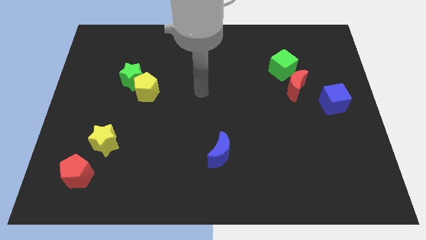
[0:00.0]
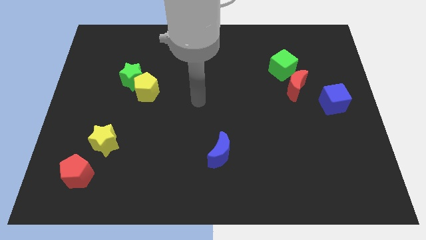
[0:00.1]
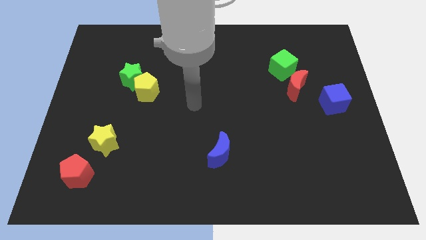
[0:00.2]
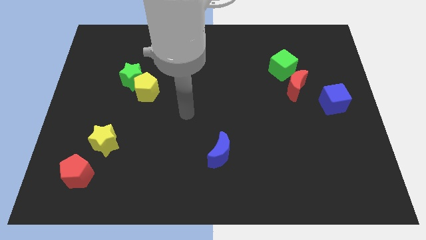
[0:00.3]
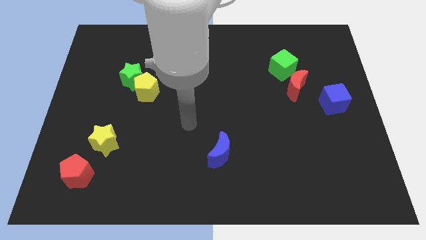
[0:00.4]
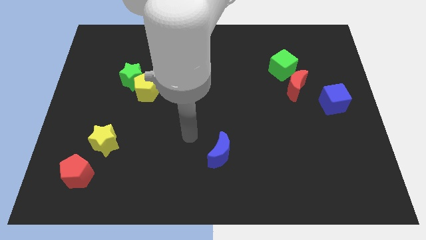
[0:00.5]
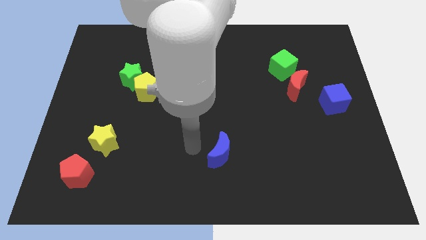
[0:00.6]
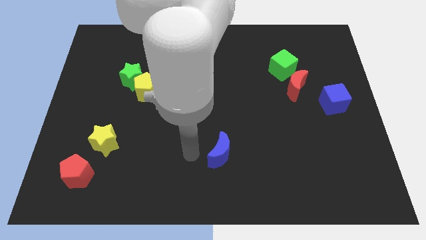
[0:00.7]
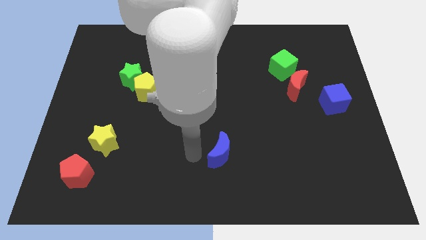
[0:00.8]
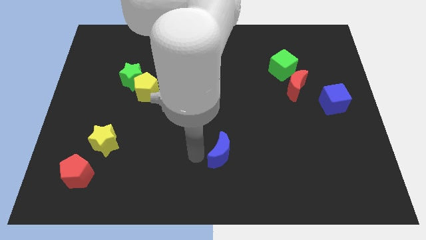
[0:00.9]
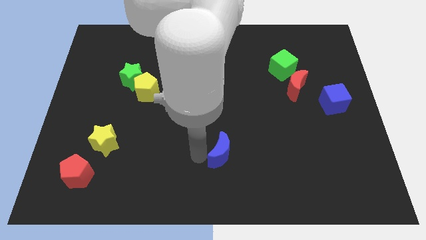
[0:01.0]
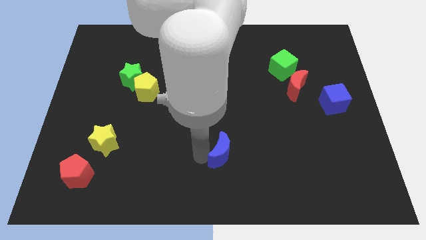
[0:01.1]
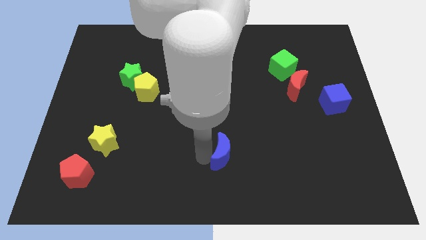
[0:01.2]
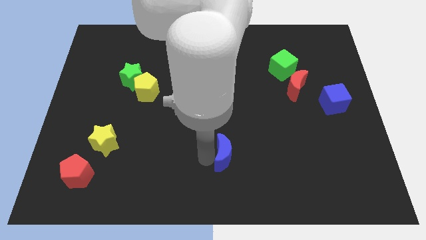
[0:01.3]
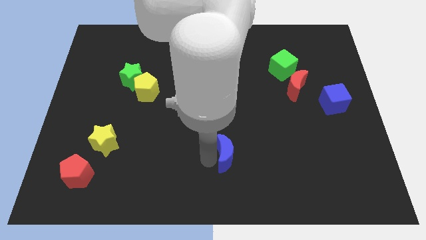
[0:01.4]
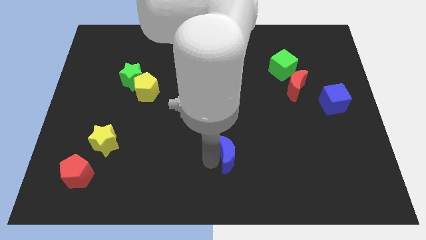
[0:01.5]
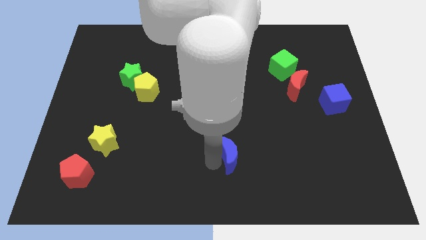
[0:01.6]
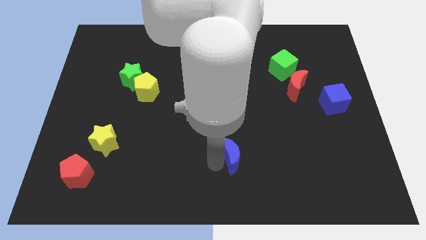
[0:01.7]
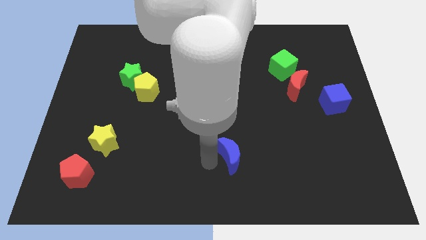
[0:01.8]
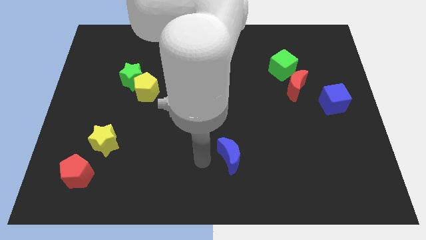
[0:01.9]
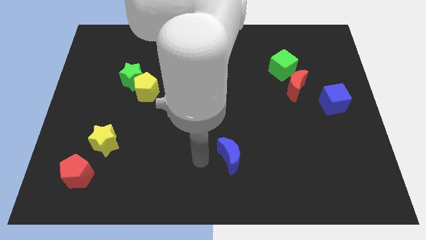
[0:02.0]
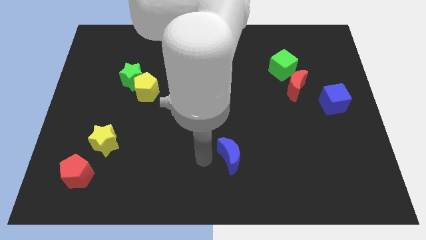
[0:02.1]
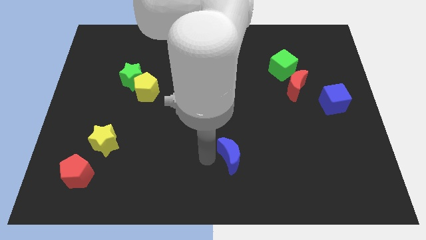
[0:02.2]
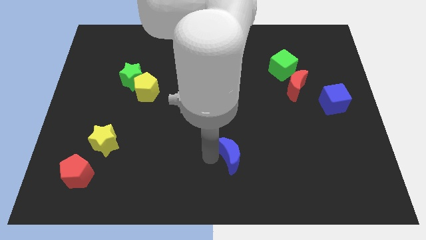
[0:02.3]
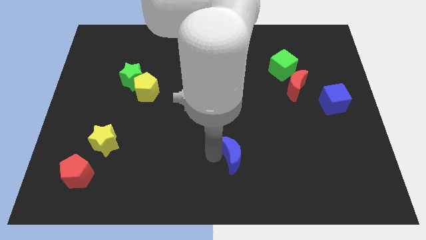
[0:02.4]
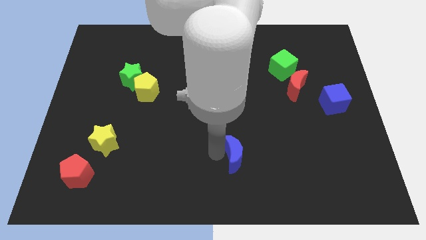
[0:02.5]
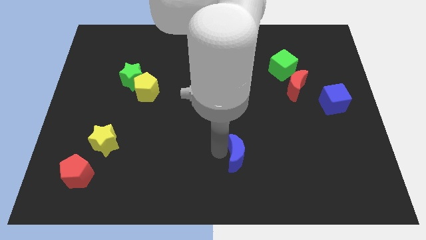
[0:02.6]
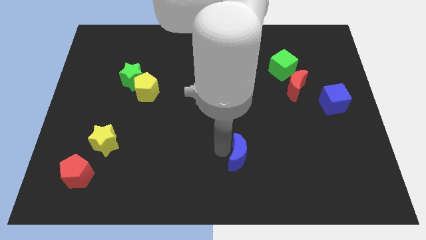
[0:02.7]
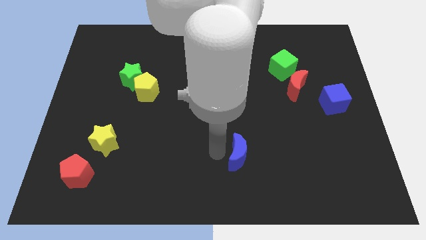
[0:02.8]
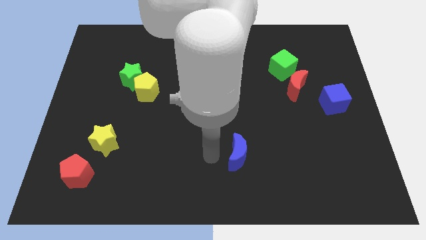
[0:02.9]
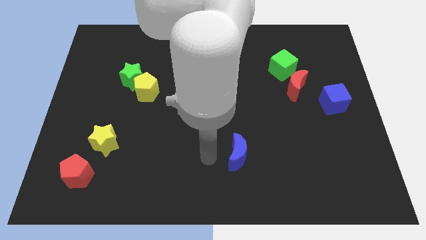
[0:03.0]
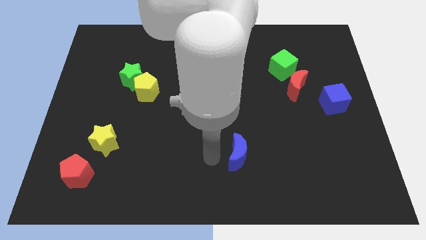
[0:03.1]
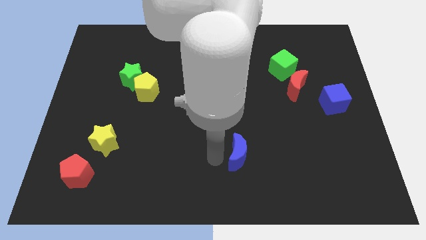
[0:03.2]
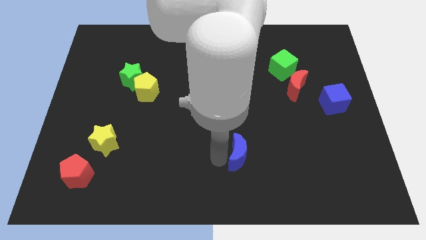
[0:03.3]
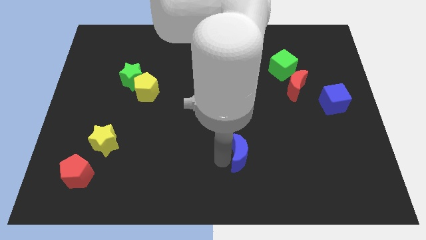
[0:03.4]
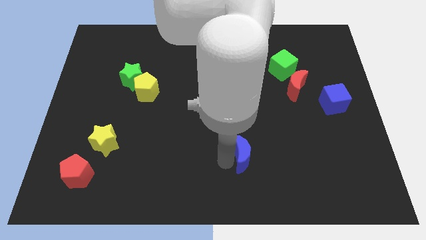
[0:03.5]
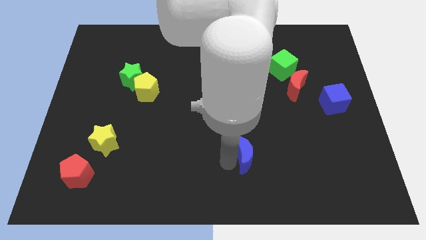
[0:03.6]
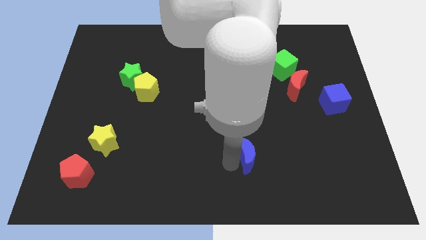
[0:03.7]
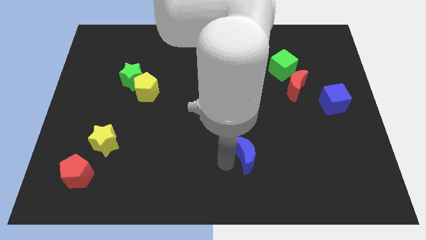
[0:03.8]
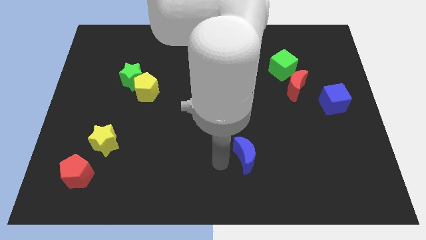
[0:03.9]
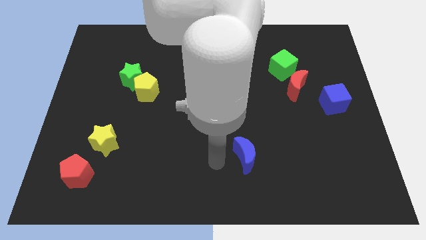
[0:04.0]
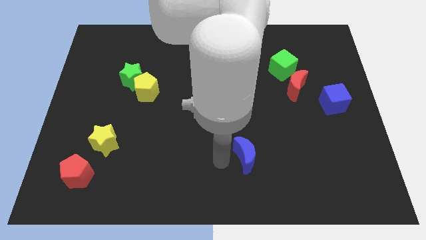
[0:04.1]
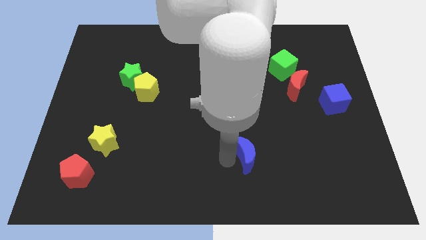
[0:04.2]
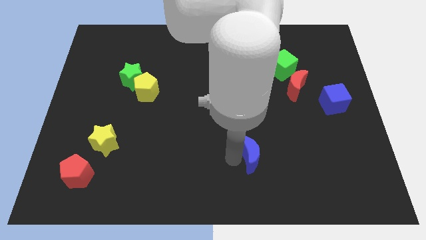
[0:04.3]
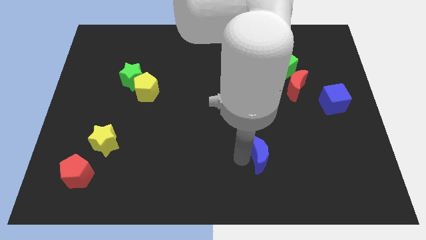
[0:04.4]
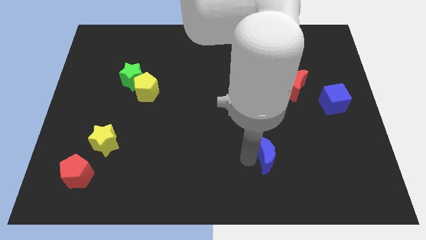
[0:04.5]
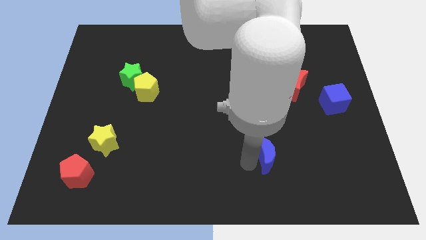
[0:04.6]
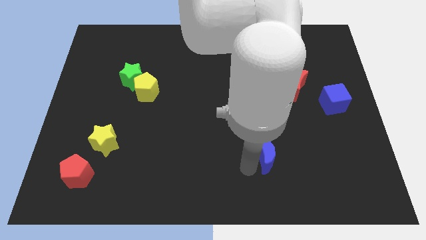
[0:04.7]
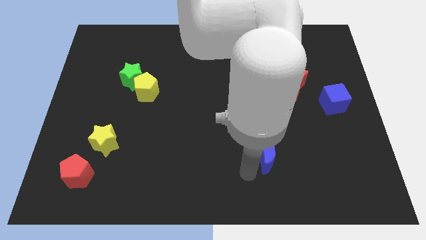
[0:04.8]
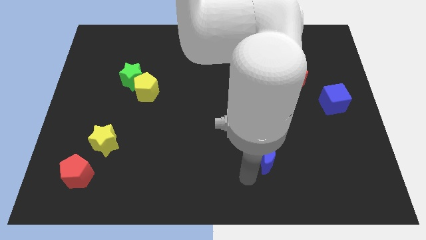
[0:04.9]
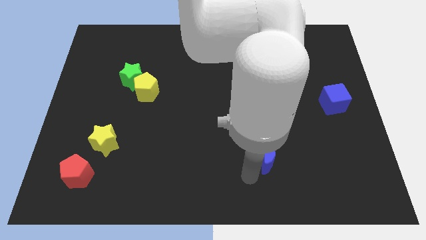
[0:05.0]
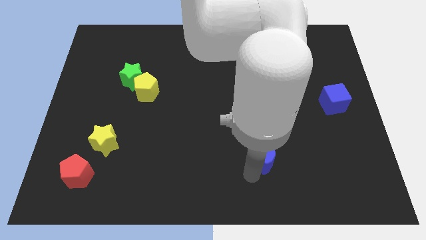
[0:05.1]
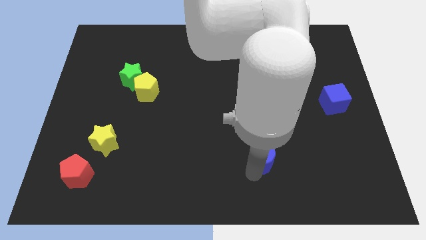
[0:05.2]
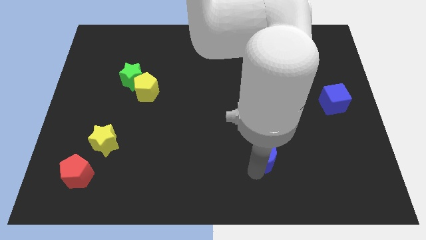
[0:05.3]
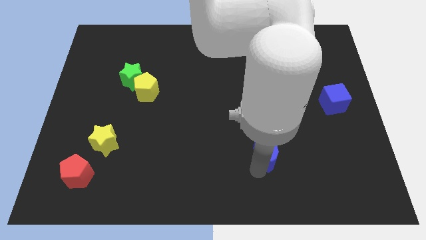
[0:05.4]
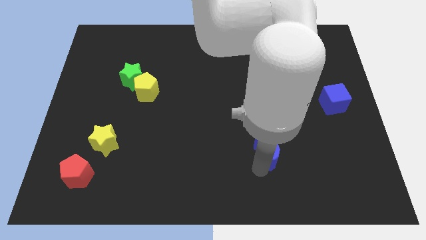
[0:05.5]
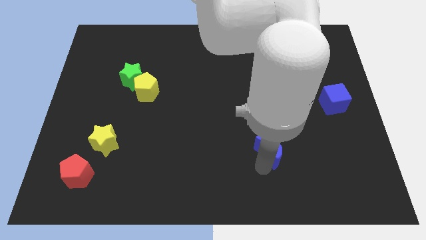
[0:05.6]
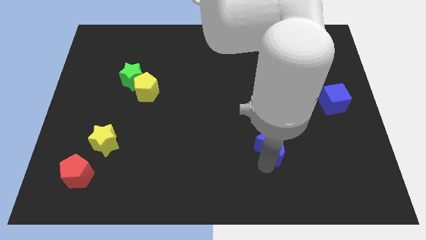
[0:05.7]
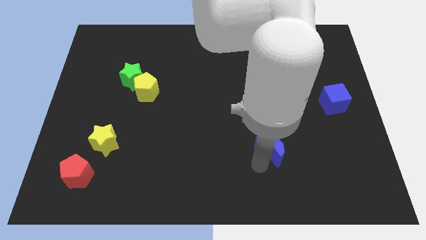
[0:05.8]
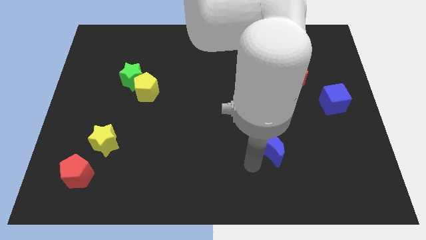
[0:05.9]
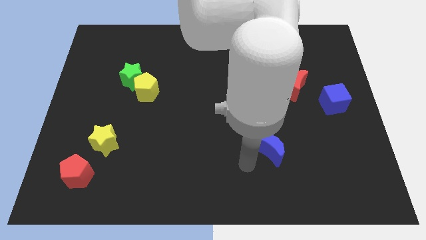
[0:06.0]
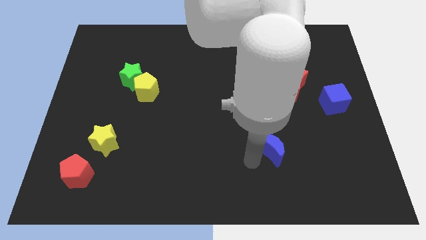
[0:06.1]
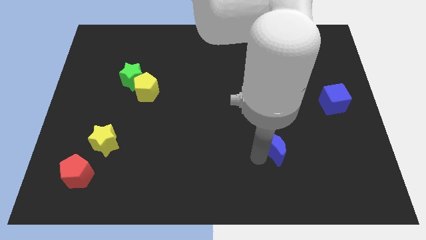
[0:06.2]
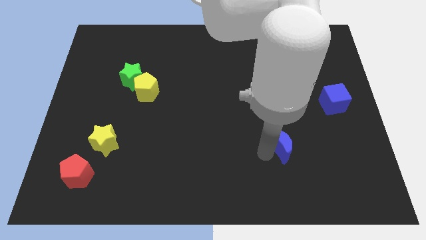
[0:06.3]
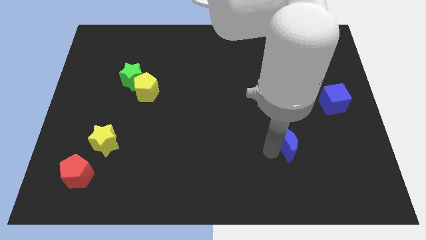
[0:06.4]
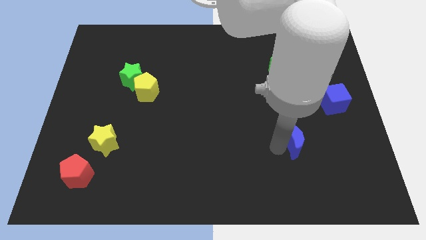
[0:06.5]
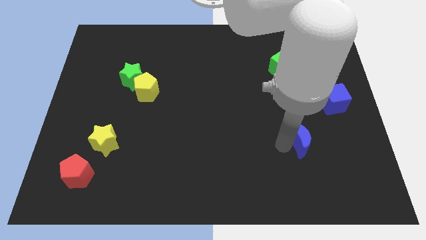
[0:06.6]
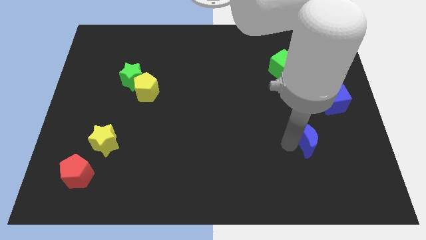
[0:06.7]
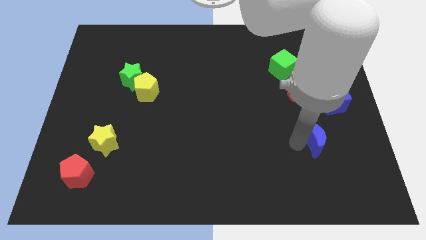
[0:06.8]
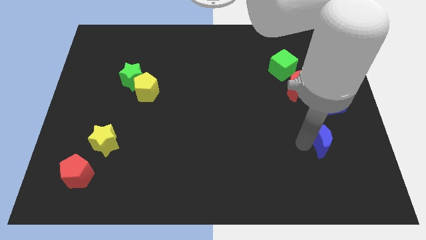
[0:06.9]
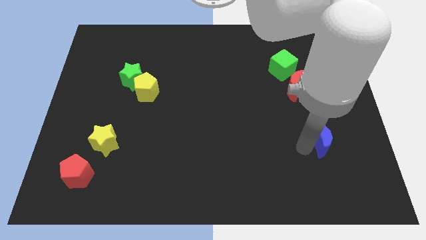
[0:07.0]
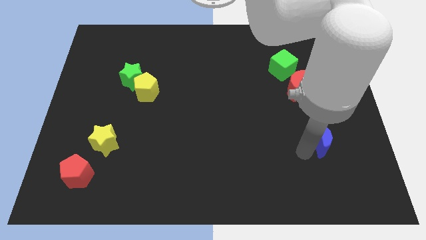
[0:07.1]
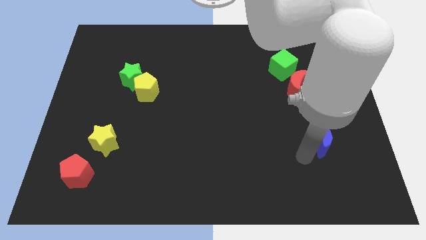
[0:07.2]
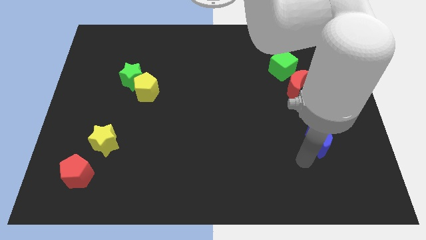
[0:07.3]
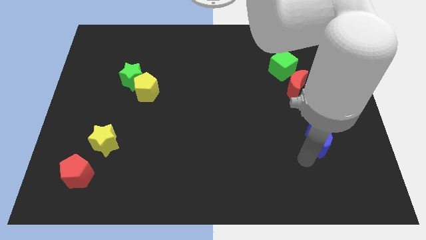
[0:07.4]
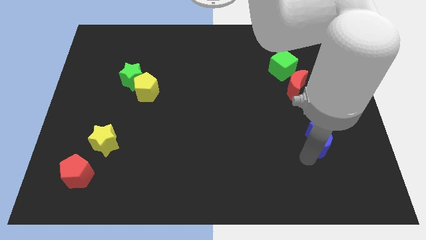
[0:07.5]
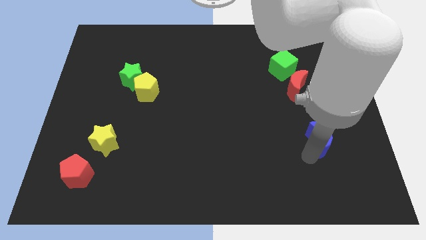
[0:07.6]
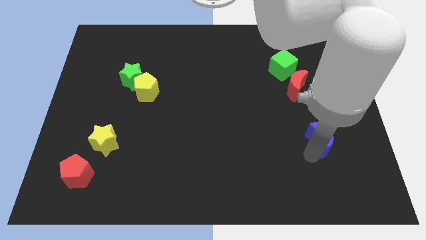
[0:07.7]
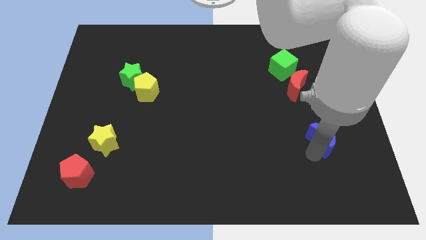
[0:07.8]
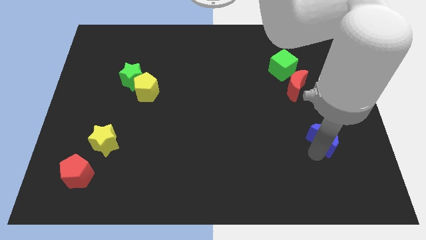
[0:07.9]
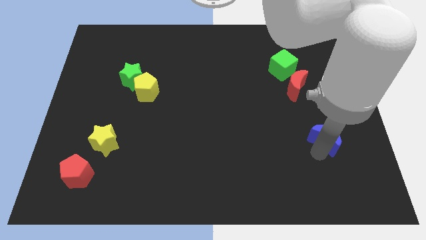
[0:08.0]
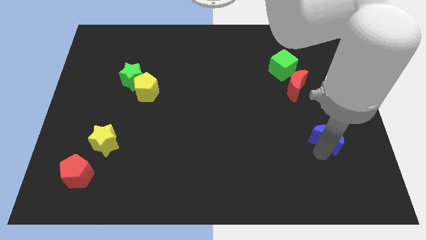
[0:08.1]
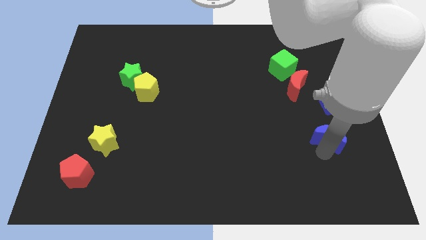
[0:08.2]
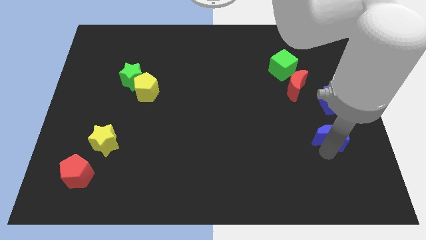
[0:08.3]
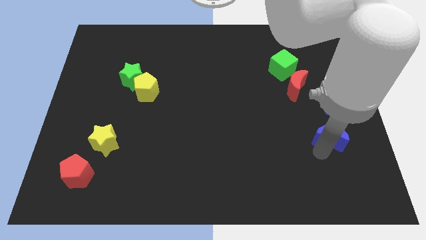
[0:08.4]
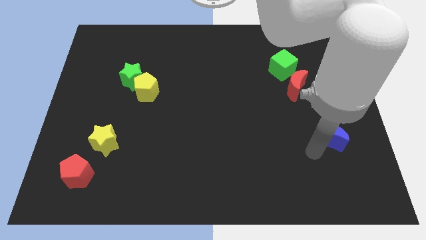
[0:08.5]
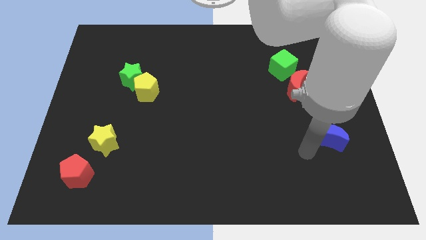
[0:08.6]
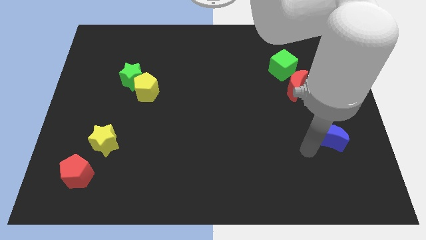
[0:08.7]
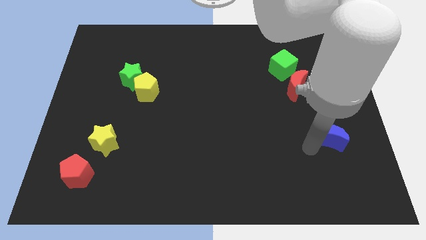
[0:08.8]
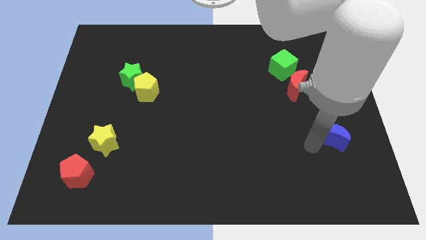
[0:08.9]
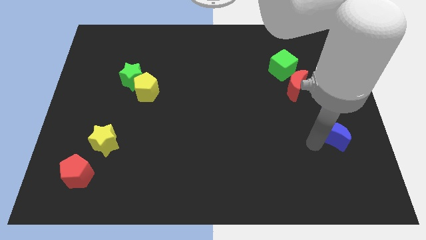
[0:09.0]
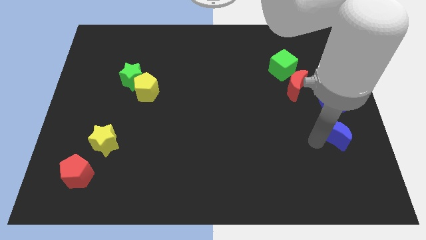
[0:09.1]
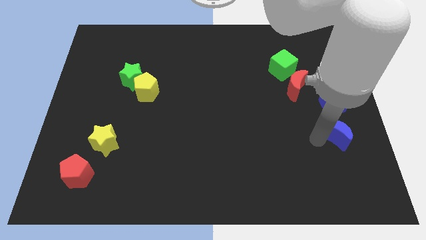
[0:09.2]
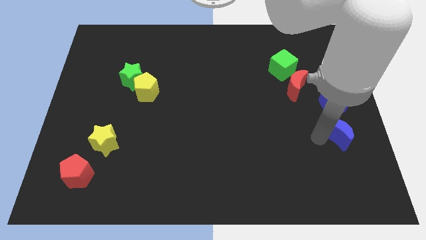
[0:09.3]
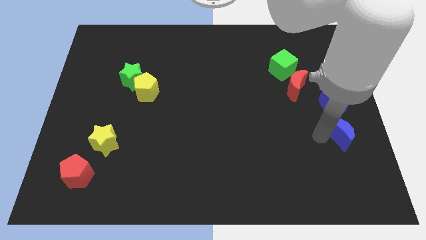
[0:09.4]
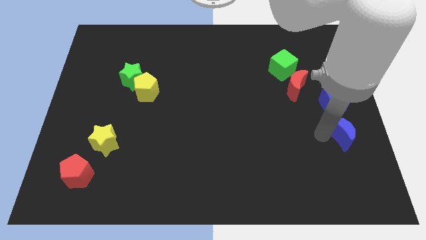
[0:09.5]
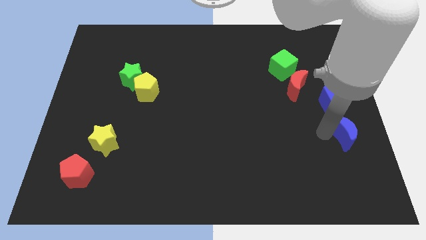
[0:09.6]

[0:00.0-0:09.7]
push the blue moon to the center right
